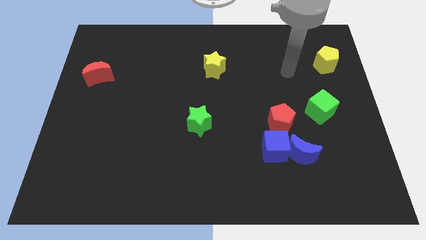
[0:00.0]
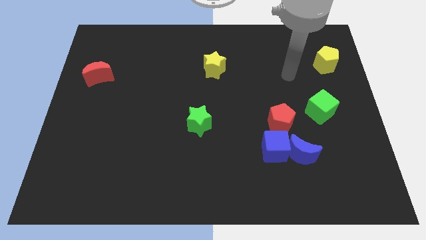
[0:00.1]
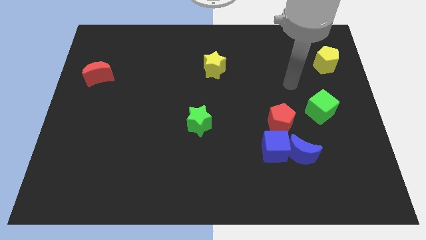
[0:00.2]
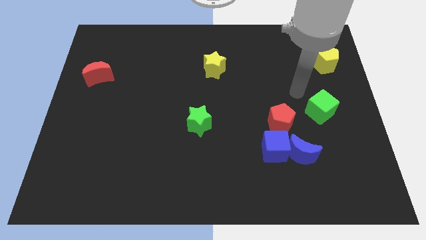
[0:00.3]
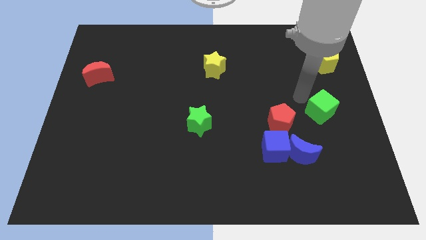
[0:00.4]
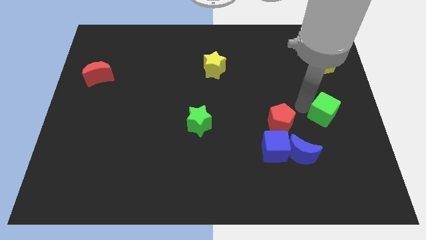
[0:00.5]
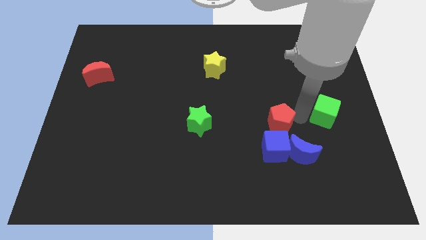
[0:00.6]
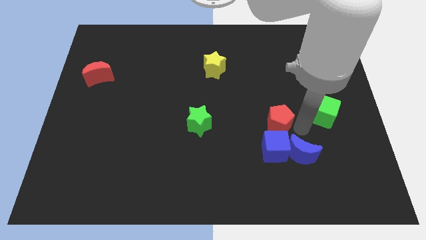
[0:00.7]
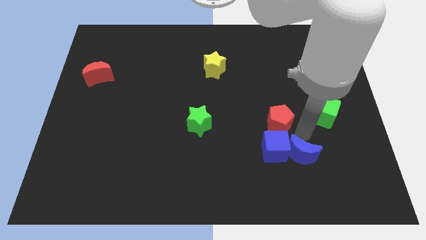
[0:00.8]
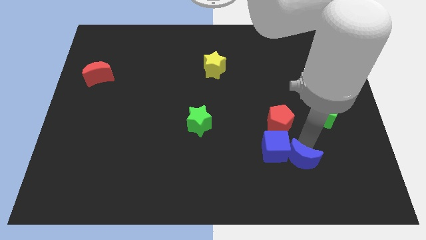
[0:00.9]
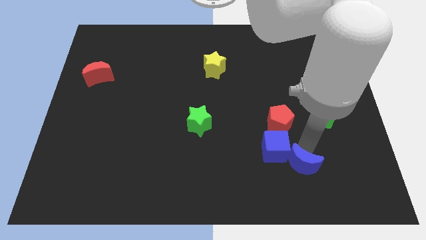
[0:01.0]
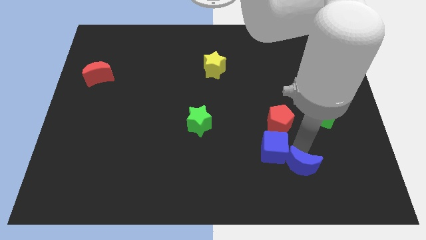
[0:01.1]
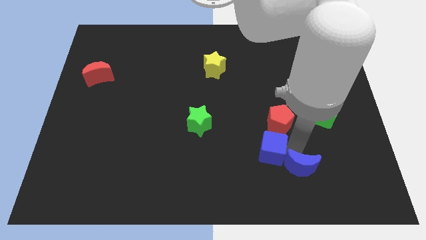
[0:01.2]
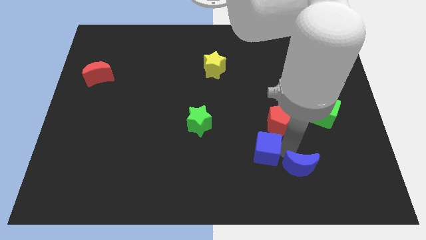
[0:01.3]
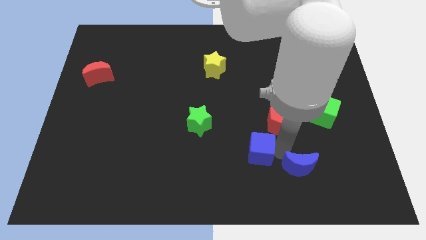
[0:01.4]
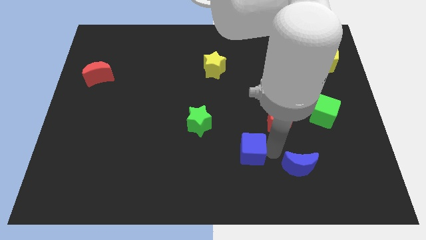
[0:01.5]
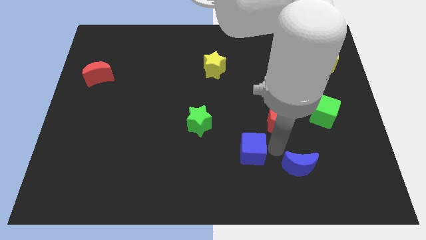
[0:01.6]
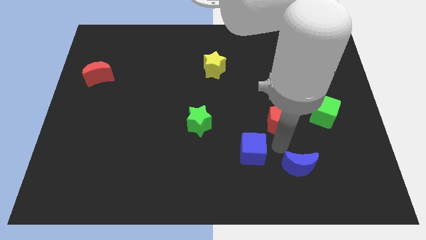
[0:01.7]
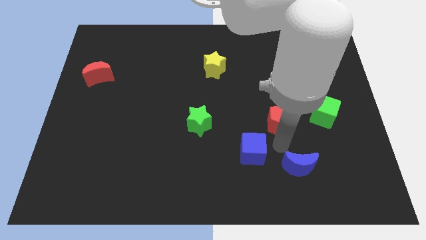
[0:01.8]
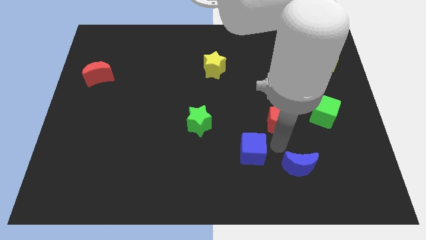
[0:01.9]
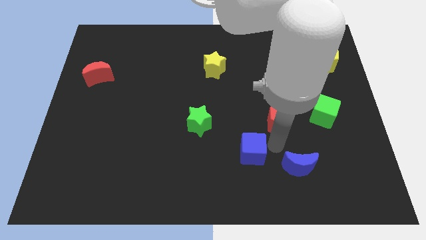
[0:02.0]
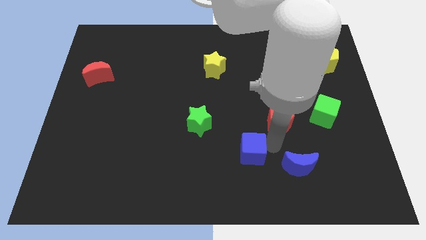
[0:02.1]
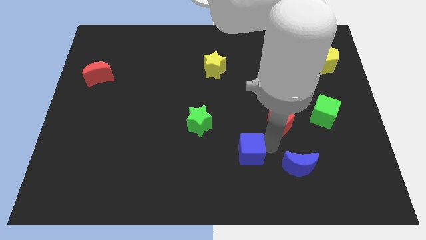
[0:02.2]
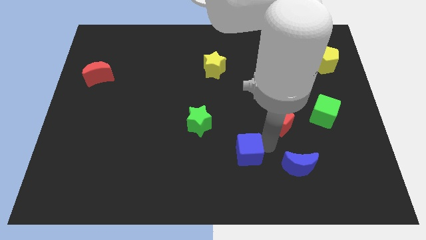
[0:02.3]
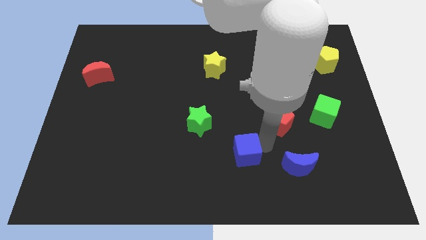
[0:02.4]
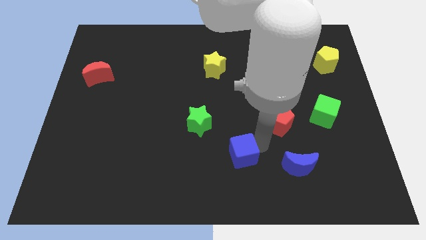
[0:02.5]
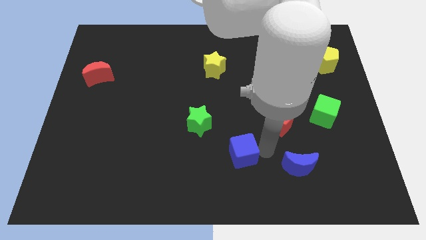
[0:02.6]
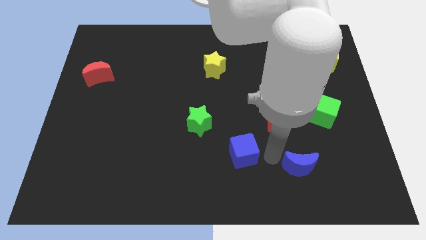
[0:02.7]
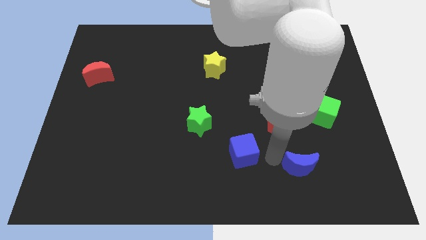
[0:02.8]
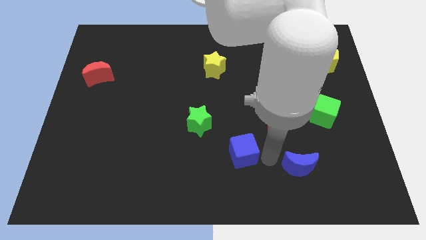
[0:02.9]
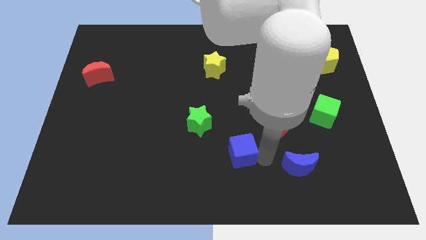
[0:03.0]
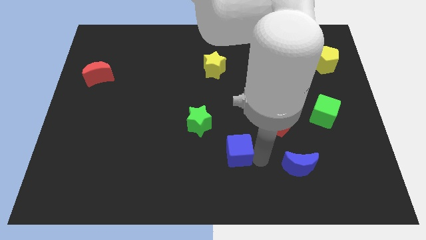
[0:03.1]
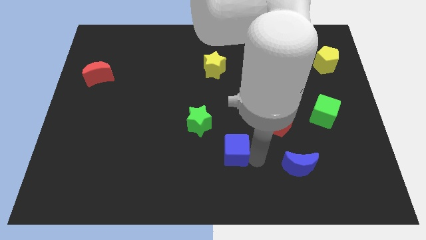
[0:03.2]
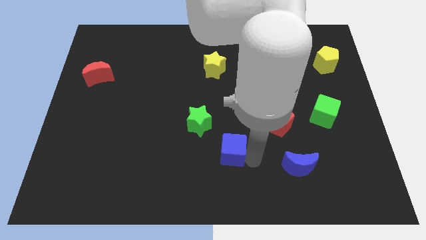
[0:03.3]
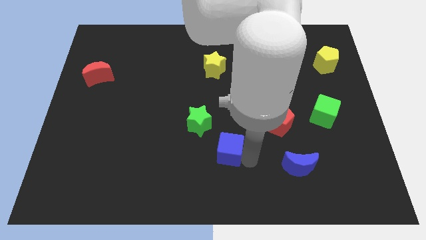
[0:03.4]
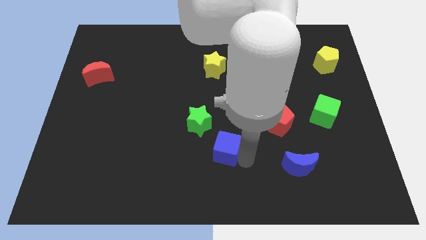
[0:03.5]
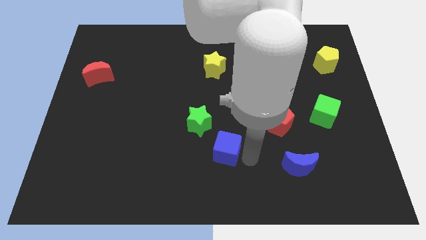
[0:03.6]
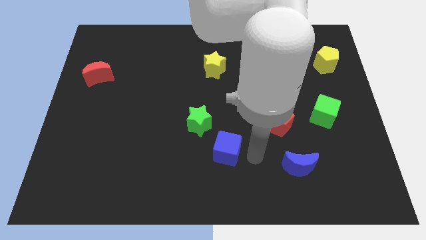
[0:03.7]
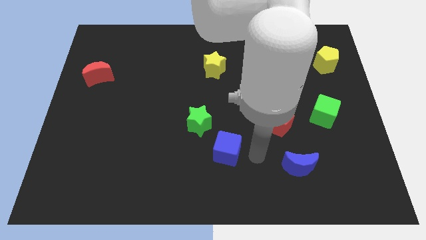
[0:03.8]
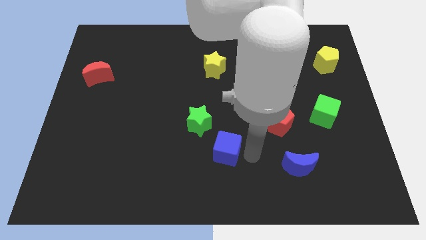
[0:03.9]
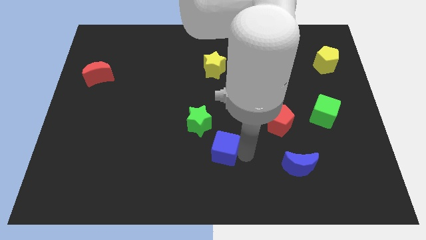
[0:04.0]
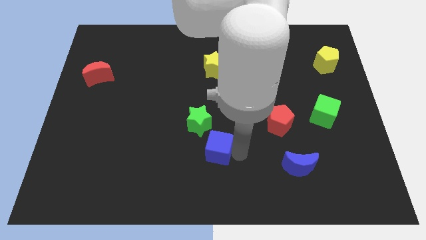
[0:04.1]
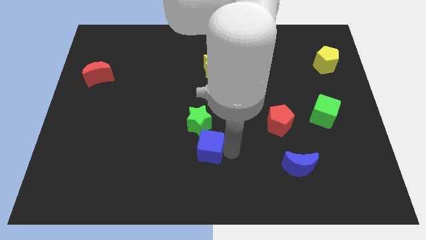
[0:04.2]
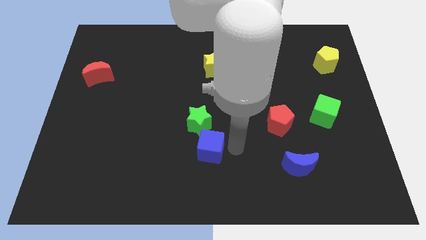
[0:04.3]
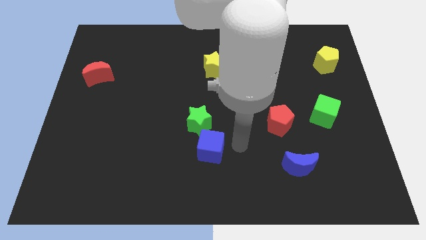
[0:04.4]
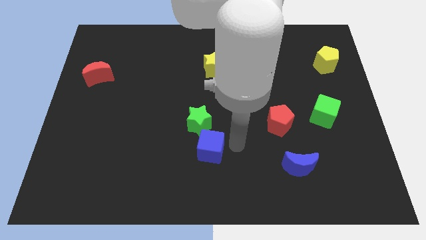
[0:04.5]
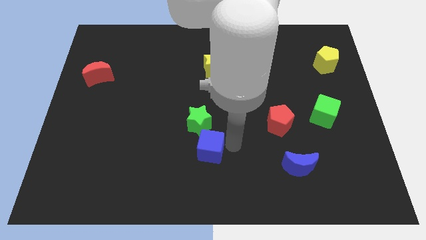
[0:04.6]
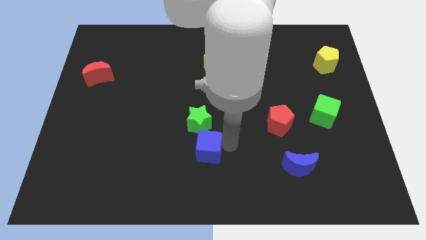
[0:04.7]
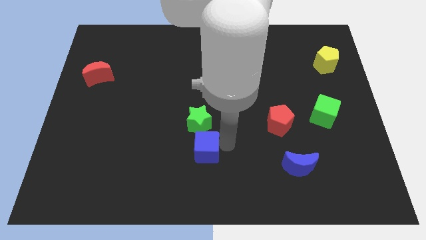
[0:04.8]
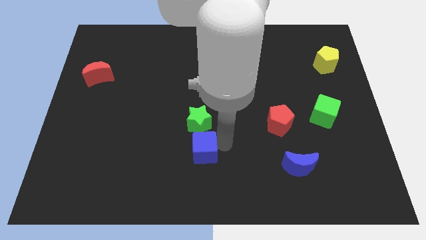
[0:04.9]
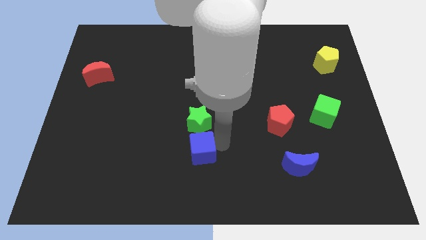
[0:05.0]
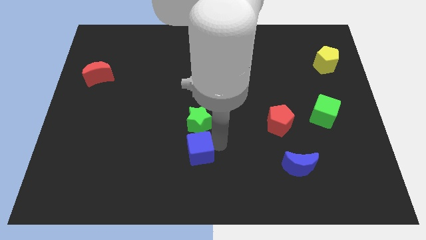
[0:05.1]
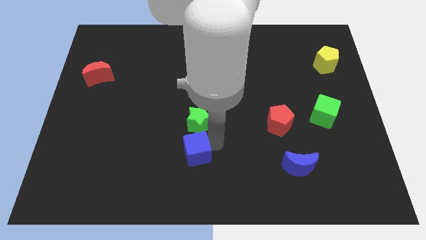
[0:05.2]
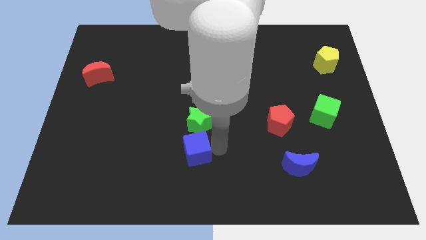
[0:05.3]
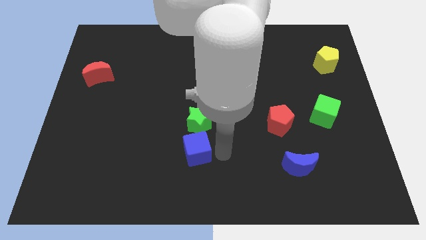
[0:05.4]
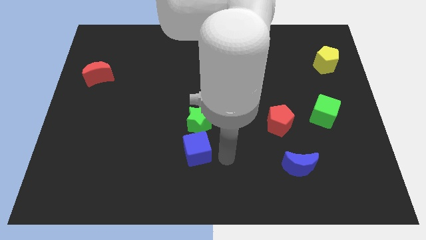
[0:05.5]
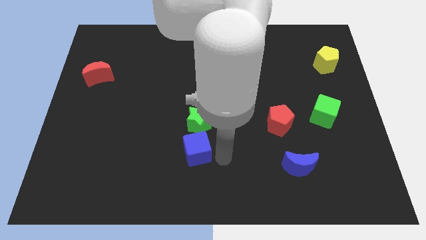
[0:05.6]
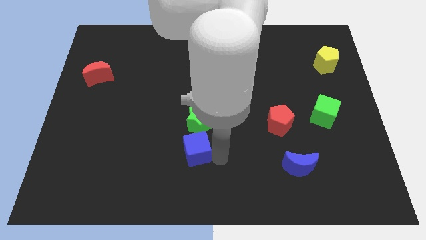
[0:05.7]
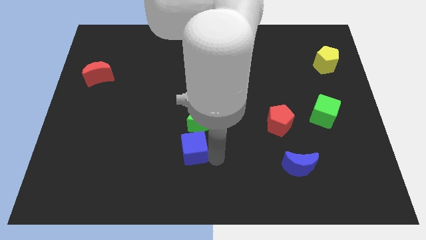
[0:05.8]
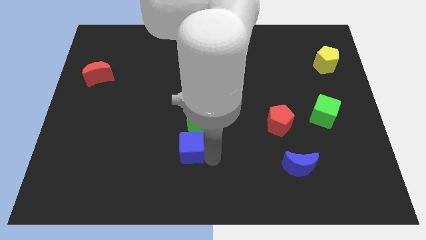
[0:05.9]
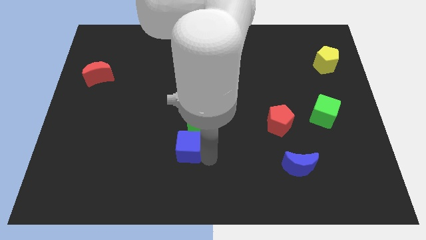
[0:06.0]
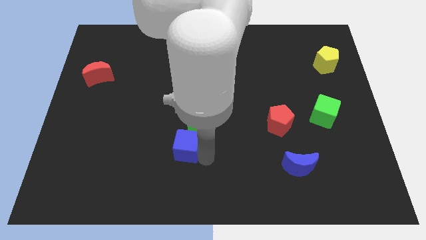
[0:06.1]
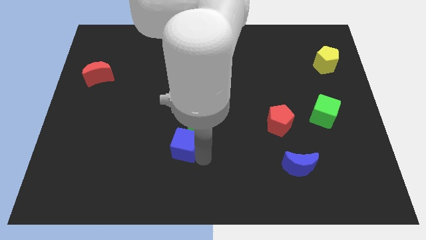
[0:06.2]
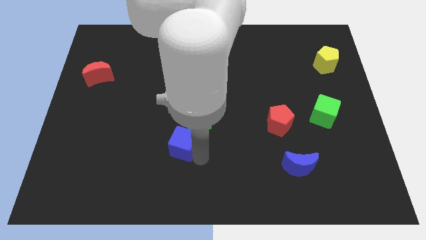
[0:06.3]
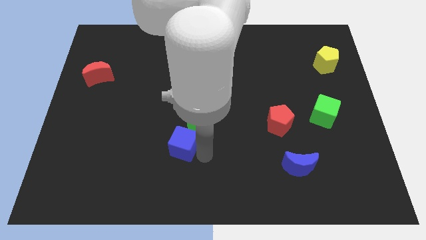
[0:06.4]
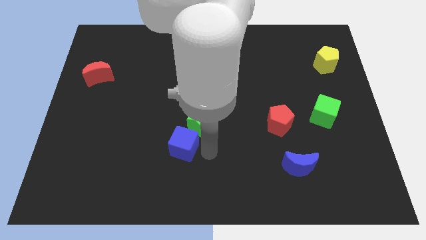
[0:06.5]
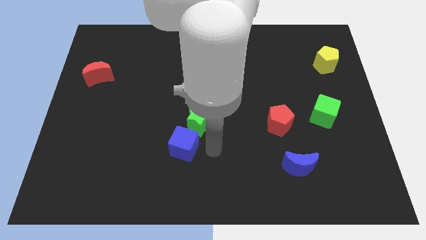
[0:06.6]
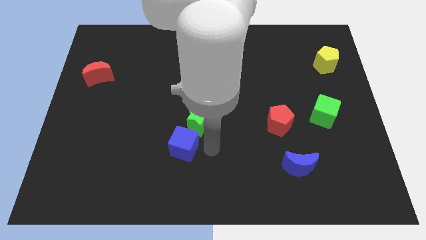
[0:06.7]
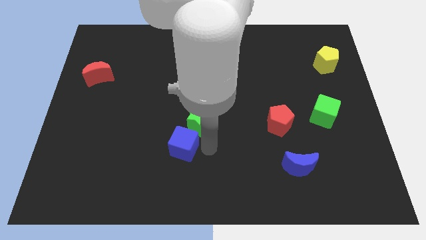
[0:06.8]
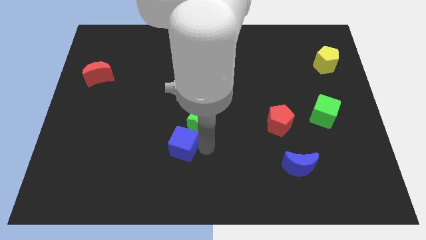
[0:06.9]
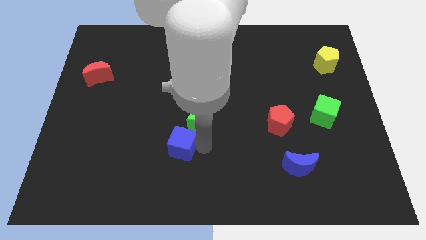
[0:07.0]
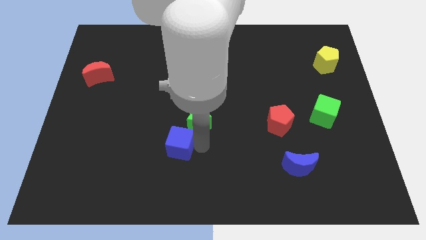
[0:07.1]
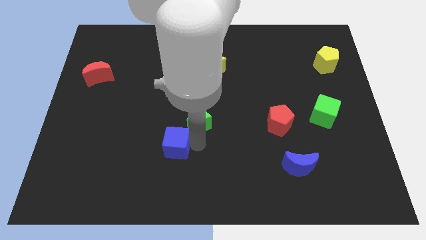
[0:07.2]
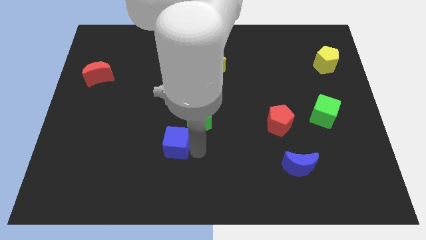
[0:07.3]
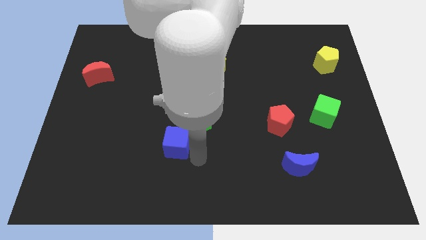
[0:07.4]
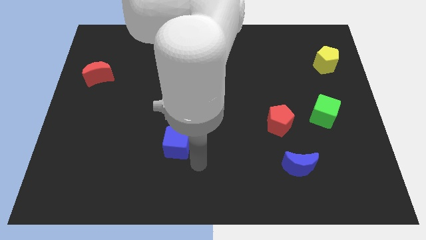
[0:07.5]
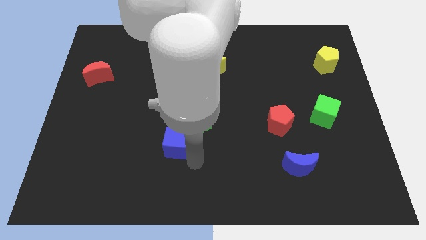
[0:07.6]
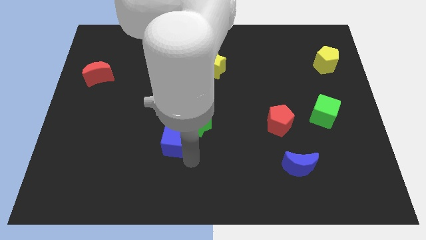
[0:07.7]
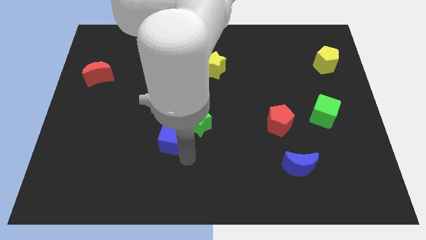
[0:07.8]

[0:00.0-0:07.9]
slide the blue cube left of the green star
